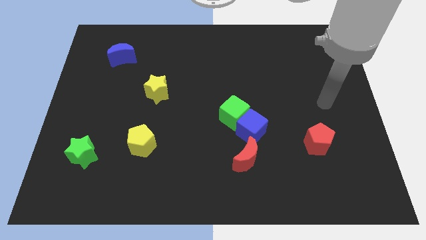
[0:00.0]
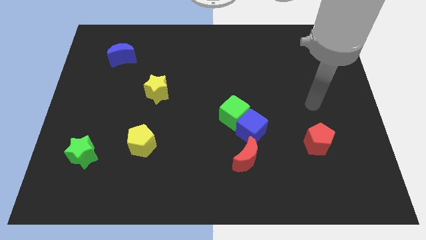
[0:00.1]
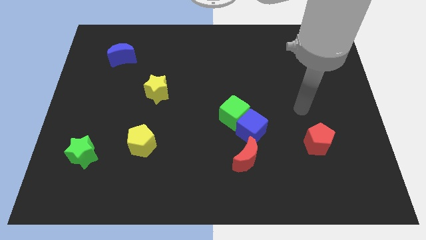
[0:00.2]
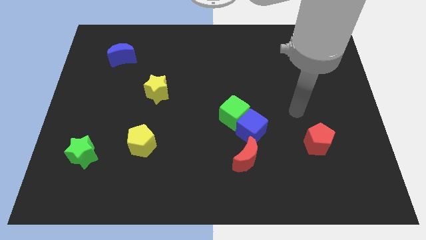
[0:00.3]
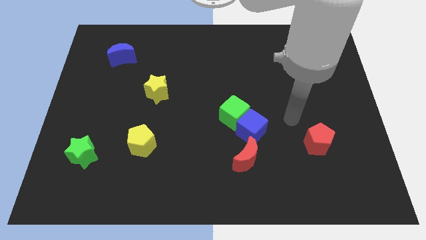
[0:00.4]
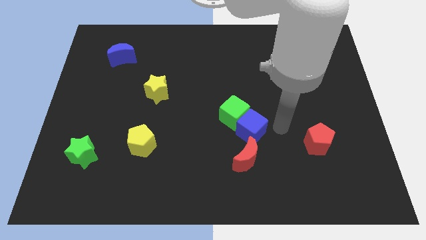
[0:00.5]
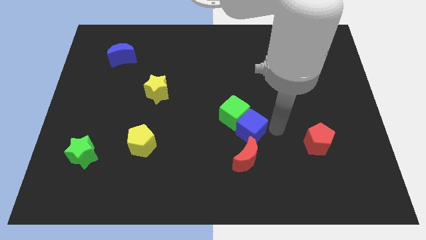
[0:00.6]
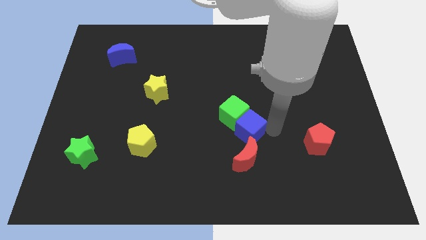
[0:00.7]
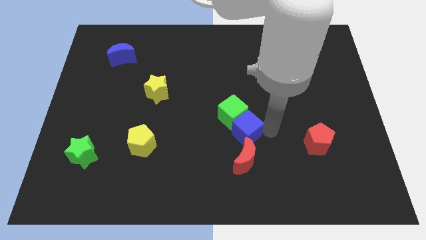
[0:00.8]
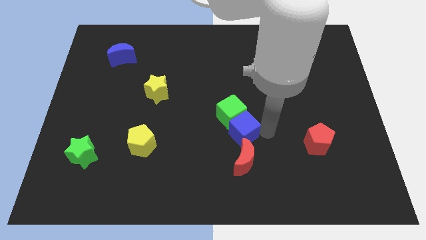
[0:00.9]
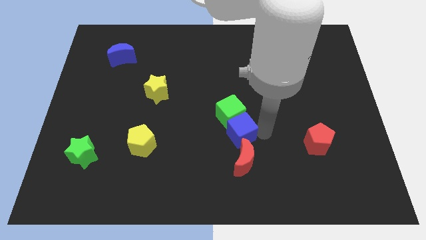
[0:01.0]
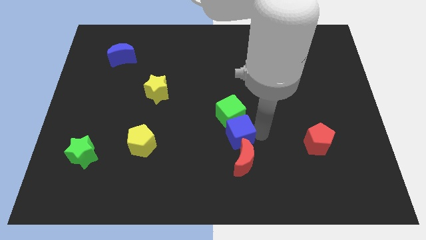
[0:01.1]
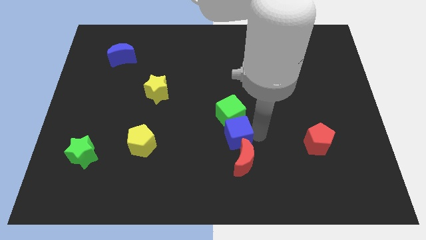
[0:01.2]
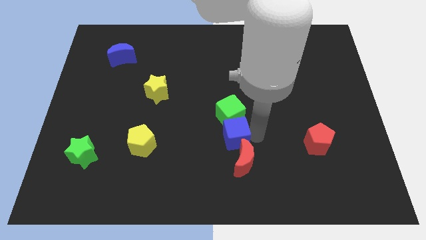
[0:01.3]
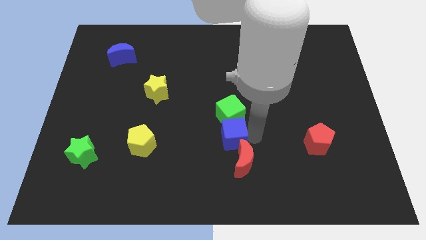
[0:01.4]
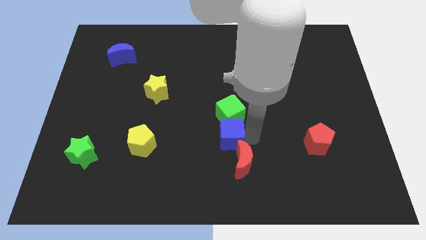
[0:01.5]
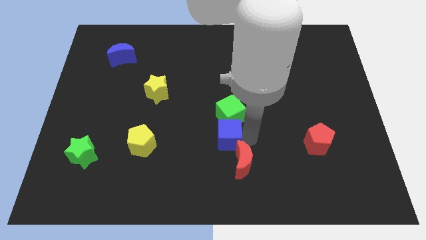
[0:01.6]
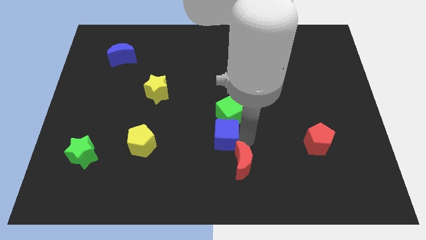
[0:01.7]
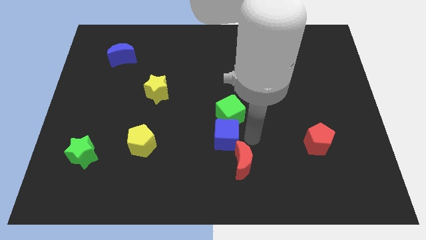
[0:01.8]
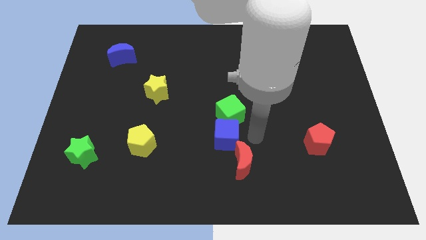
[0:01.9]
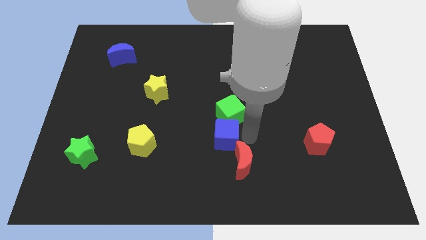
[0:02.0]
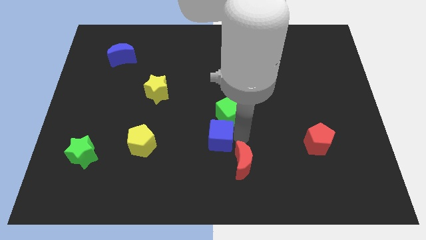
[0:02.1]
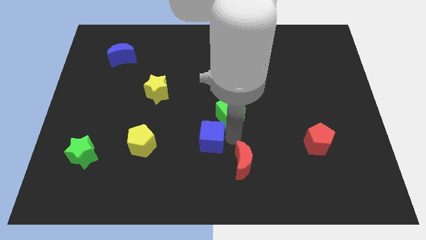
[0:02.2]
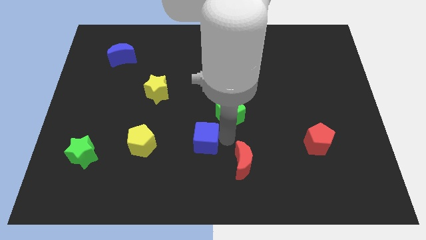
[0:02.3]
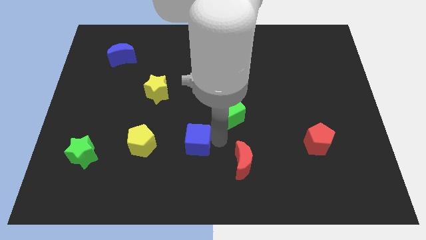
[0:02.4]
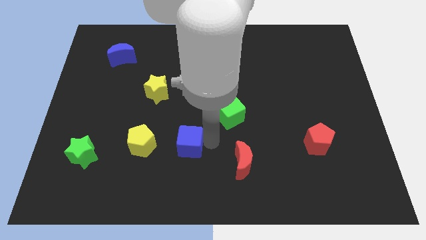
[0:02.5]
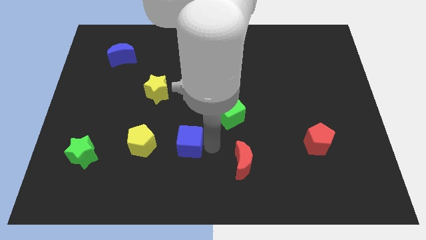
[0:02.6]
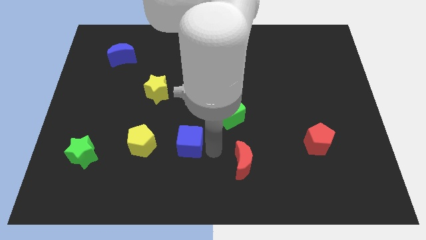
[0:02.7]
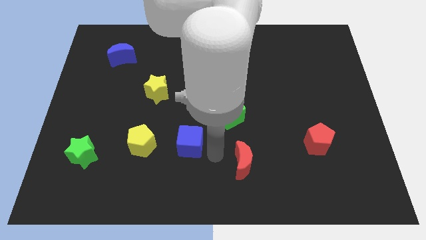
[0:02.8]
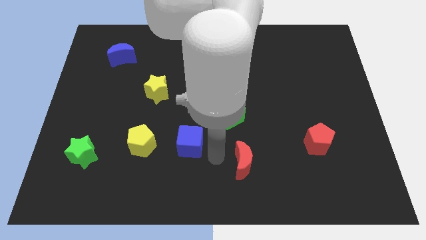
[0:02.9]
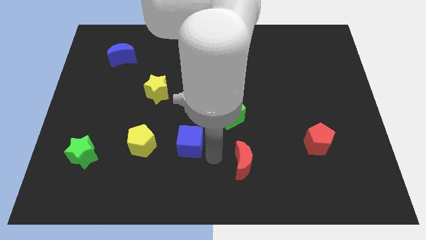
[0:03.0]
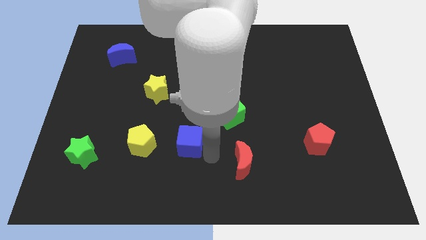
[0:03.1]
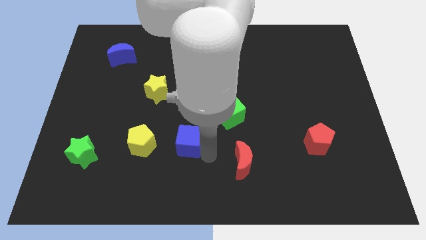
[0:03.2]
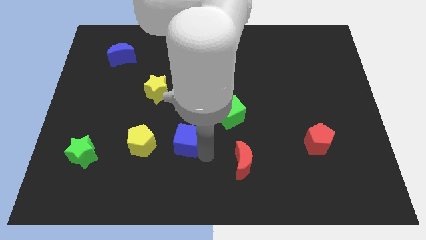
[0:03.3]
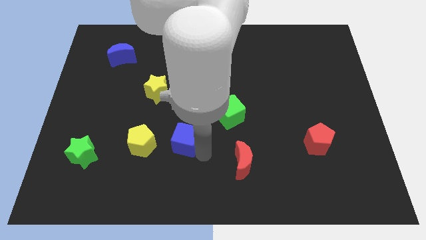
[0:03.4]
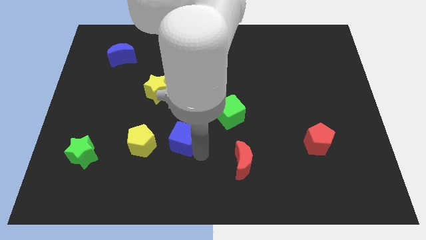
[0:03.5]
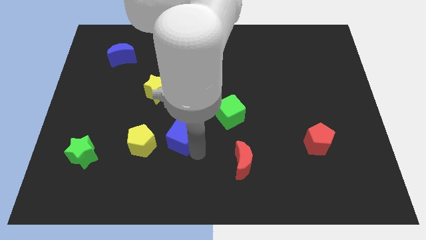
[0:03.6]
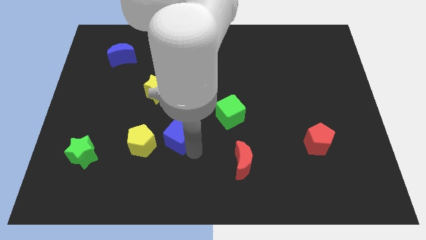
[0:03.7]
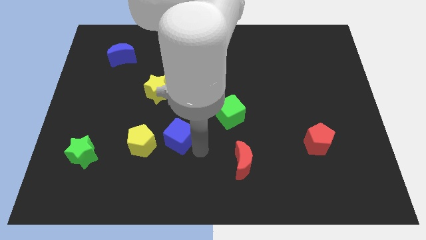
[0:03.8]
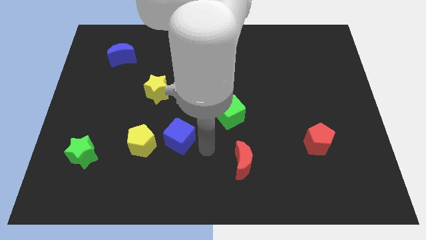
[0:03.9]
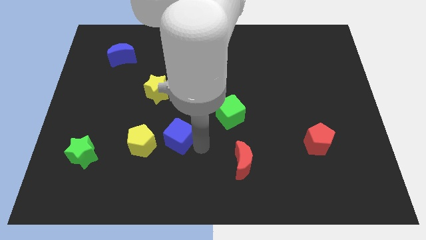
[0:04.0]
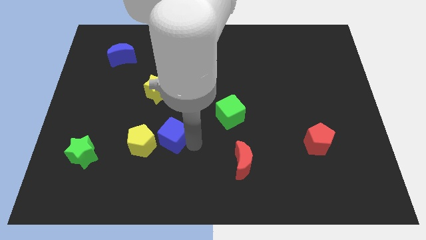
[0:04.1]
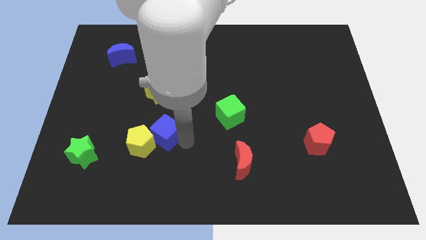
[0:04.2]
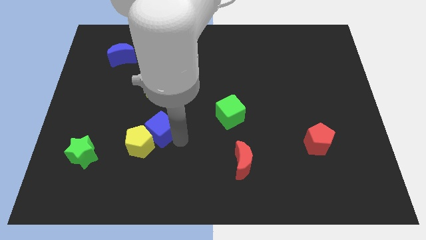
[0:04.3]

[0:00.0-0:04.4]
move the blue cube to the left

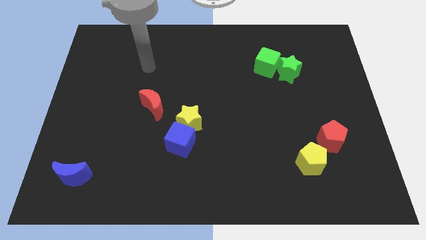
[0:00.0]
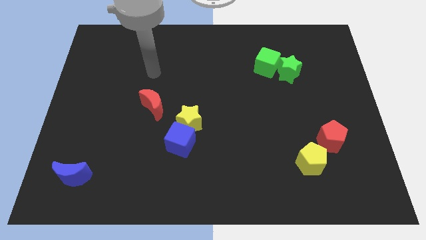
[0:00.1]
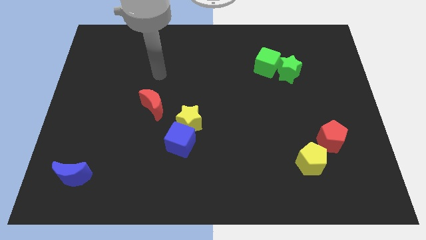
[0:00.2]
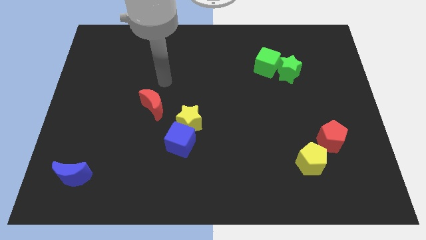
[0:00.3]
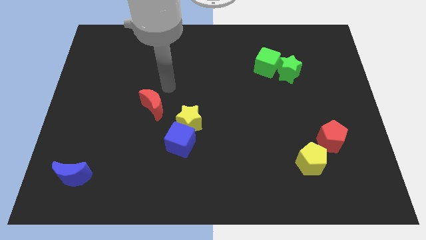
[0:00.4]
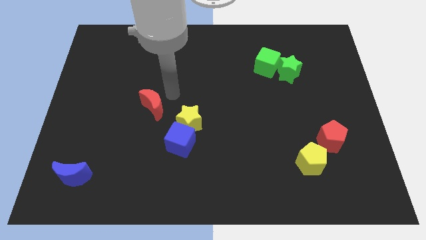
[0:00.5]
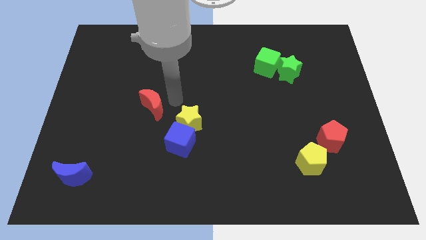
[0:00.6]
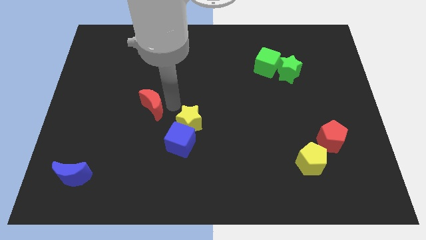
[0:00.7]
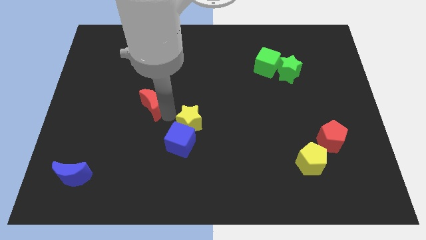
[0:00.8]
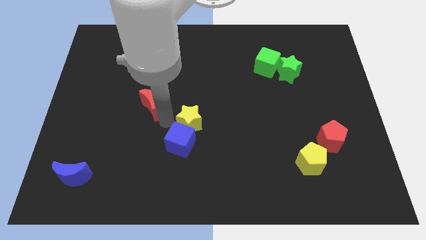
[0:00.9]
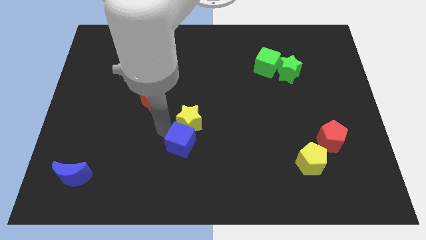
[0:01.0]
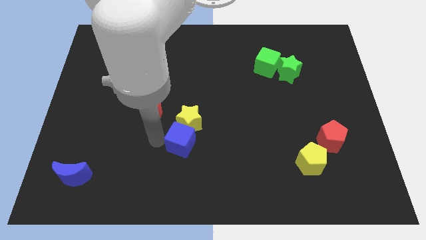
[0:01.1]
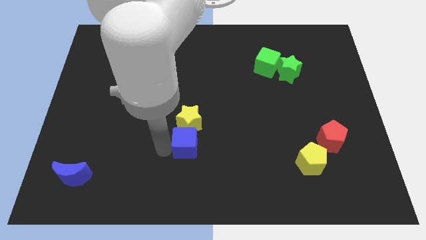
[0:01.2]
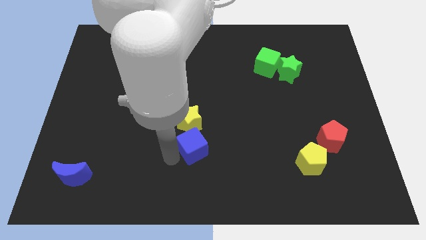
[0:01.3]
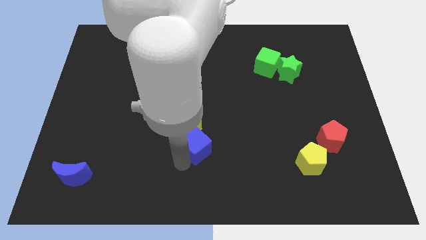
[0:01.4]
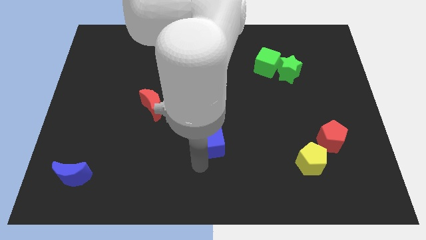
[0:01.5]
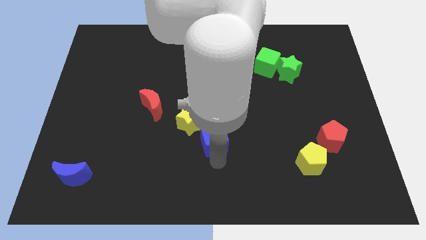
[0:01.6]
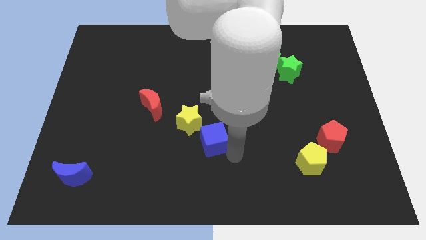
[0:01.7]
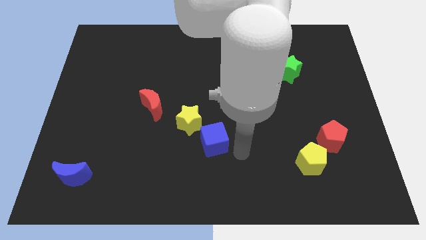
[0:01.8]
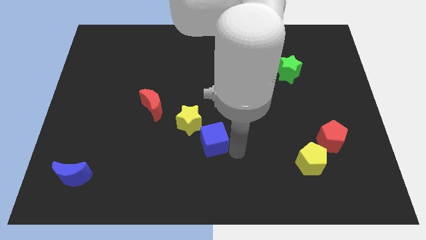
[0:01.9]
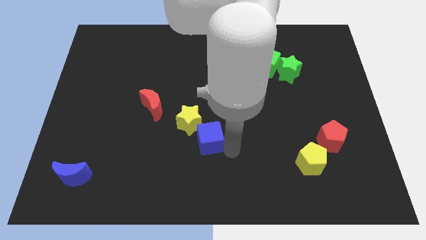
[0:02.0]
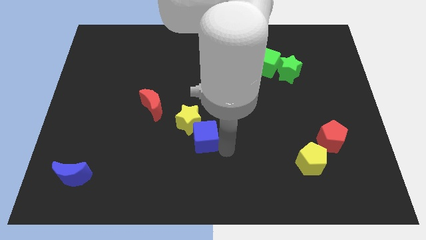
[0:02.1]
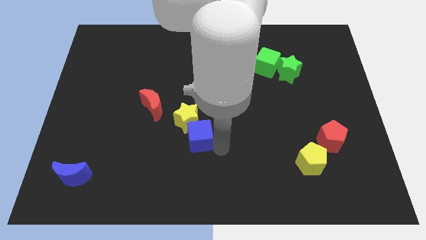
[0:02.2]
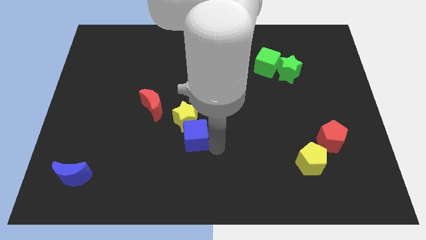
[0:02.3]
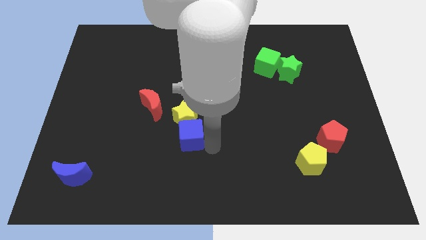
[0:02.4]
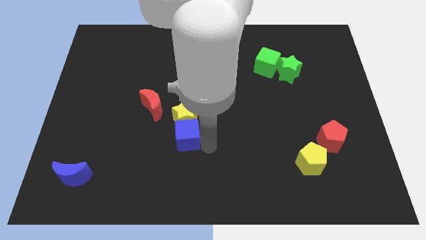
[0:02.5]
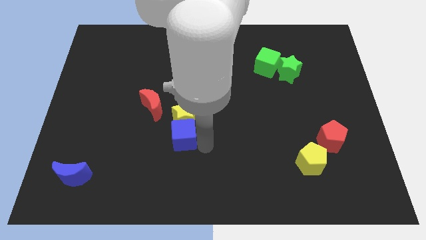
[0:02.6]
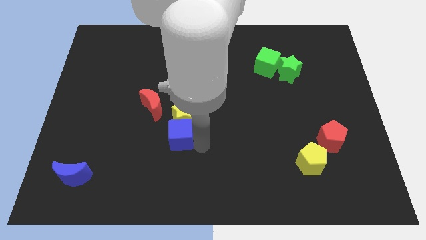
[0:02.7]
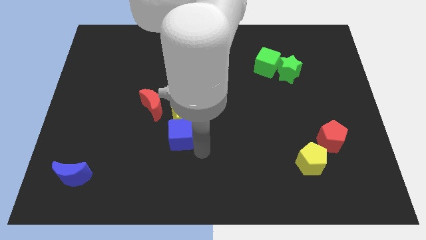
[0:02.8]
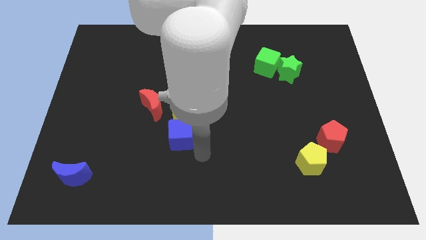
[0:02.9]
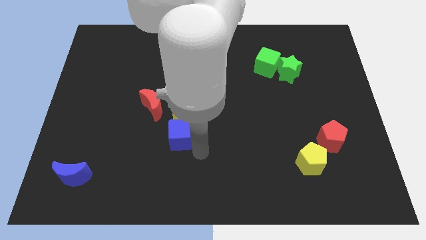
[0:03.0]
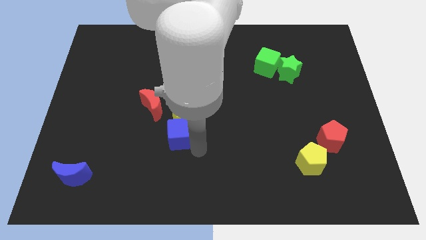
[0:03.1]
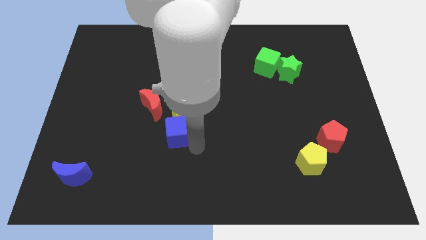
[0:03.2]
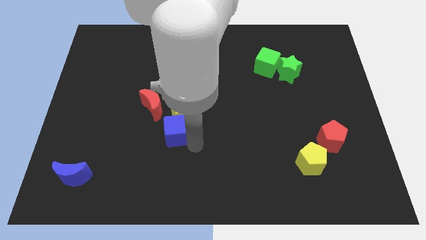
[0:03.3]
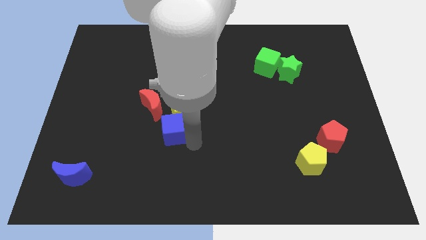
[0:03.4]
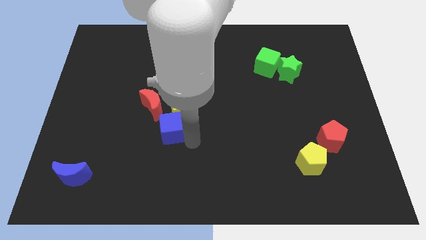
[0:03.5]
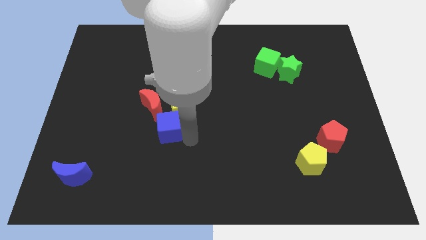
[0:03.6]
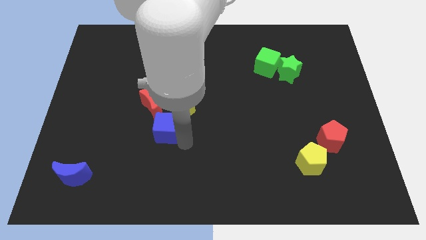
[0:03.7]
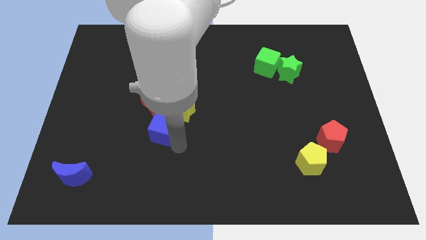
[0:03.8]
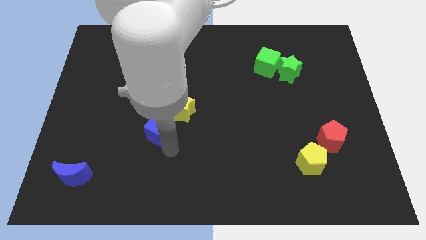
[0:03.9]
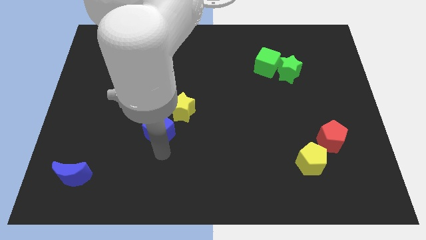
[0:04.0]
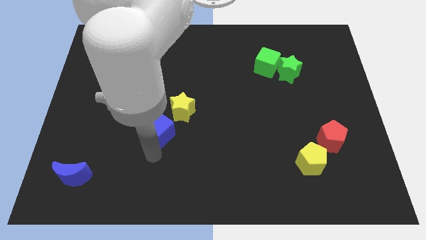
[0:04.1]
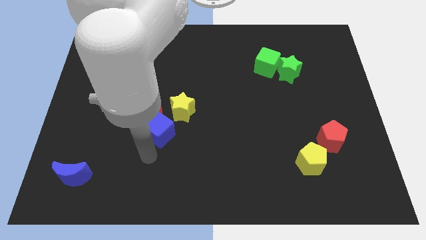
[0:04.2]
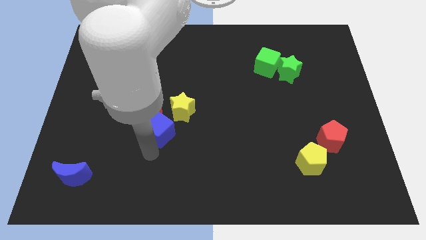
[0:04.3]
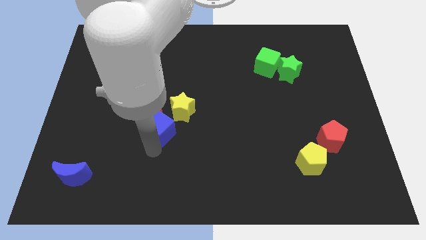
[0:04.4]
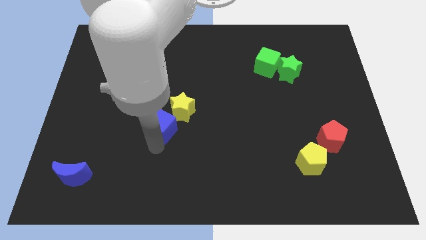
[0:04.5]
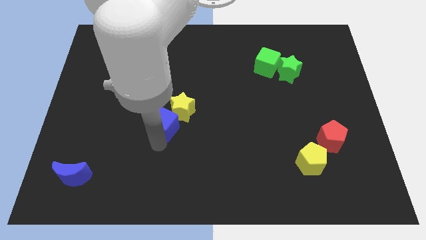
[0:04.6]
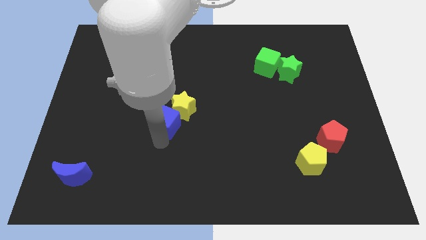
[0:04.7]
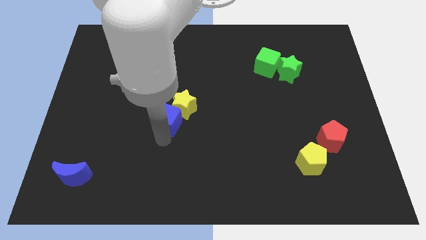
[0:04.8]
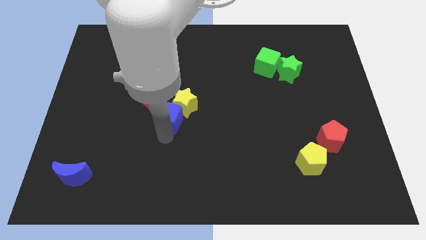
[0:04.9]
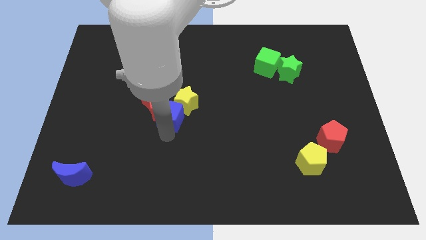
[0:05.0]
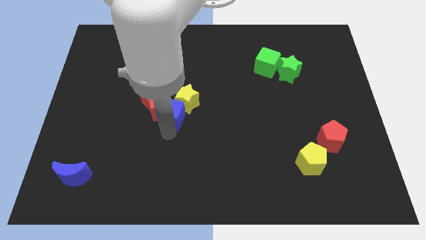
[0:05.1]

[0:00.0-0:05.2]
move the blue cube a bit upwards
